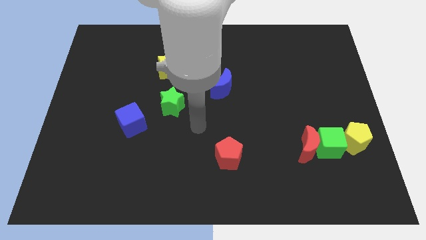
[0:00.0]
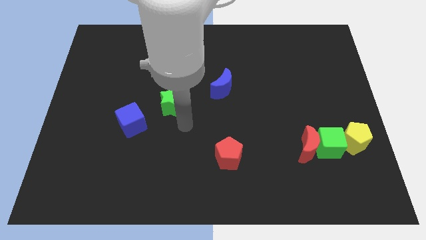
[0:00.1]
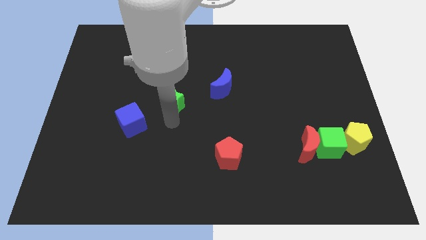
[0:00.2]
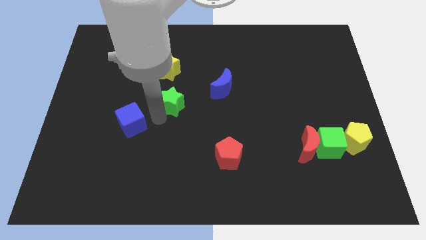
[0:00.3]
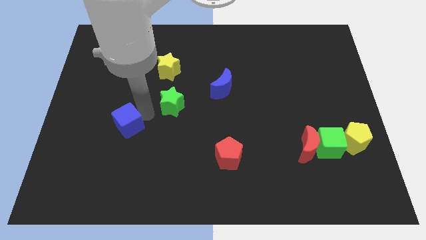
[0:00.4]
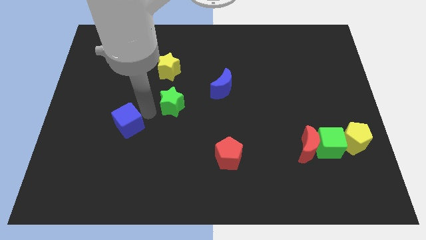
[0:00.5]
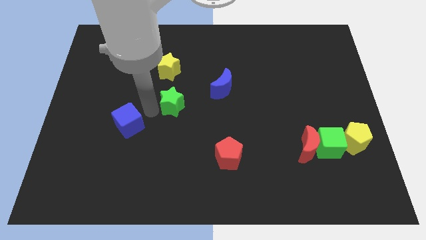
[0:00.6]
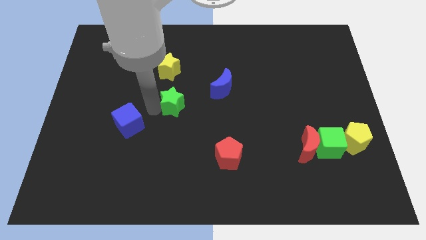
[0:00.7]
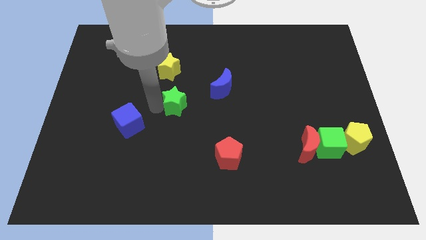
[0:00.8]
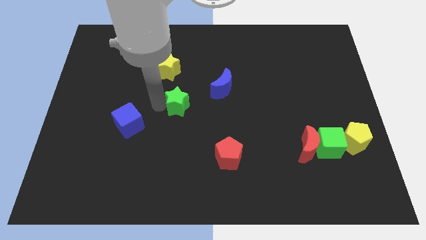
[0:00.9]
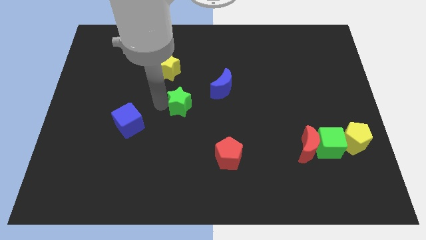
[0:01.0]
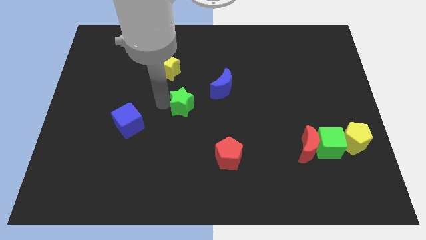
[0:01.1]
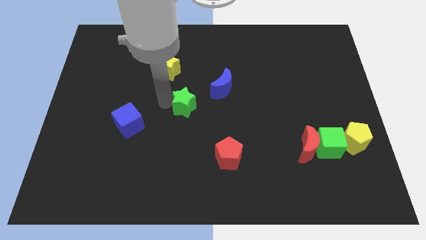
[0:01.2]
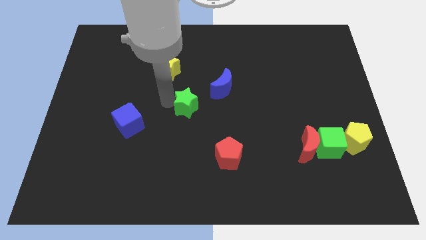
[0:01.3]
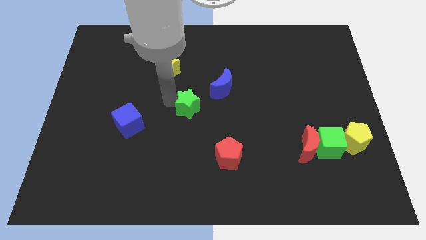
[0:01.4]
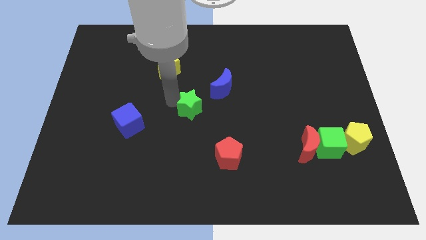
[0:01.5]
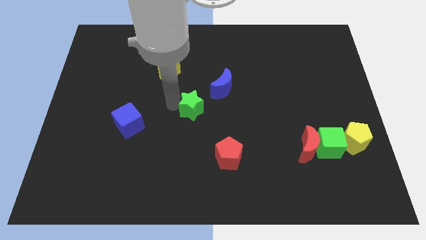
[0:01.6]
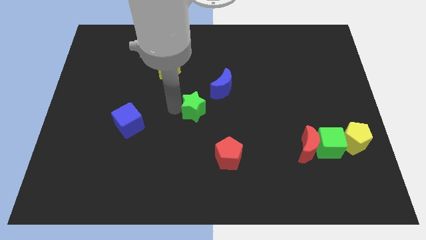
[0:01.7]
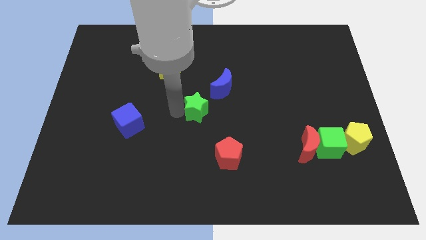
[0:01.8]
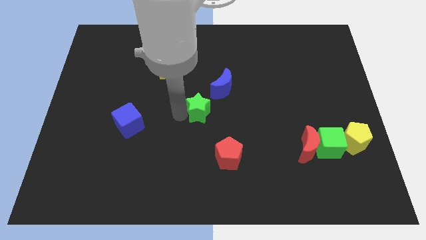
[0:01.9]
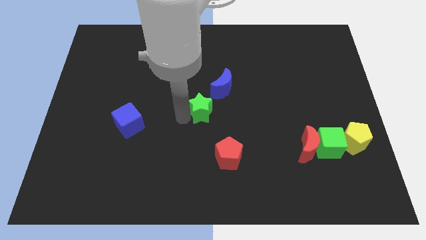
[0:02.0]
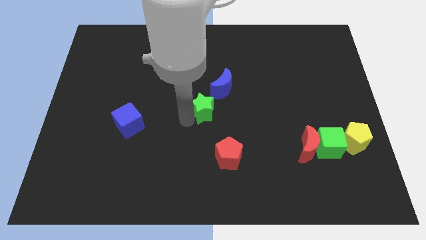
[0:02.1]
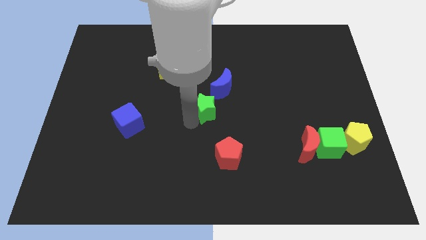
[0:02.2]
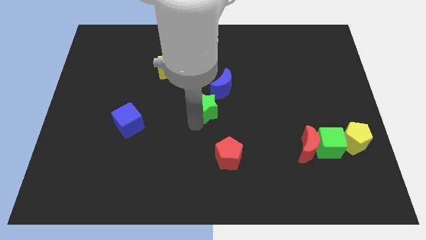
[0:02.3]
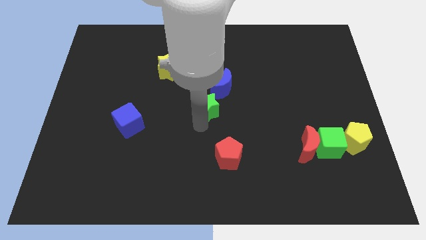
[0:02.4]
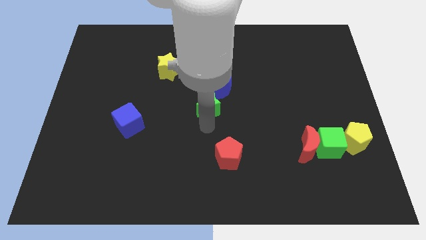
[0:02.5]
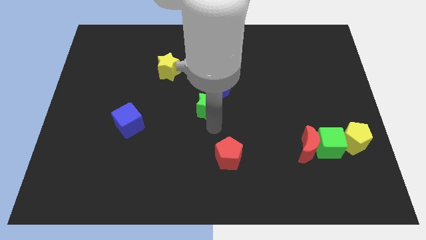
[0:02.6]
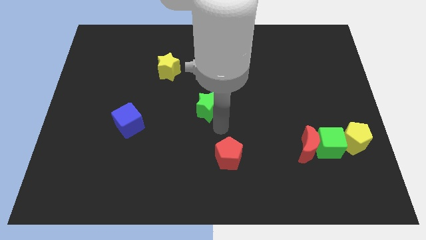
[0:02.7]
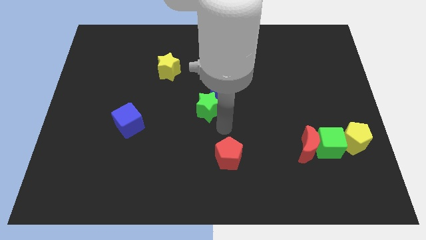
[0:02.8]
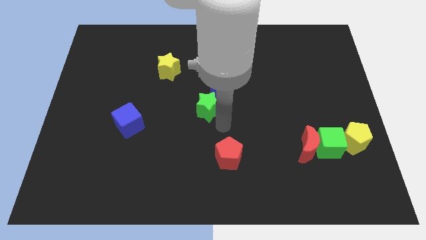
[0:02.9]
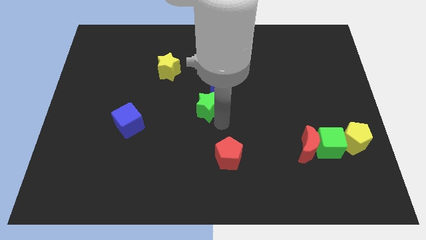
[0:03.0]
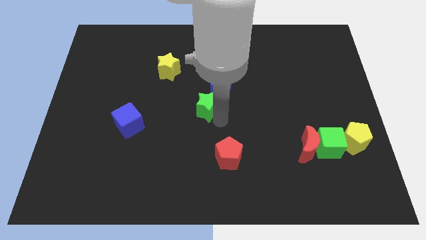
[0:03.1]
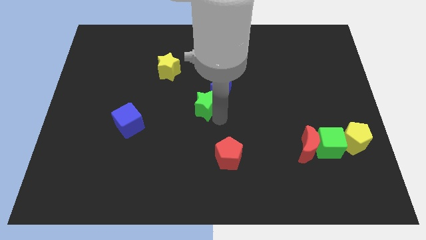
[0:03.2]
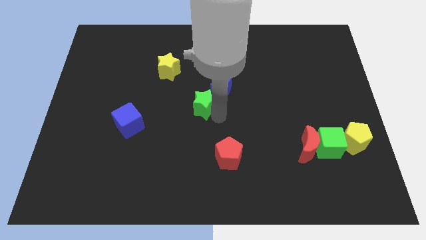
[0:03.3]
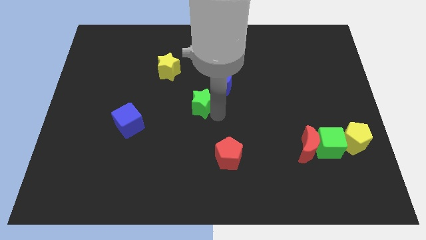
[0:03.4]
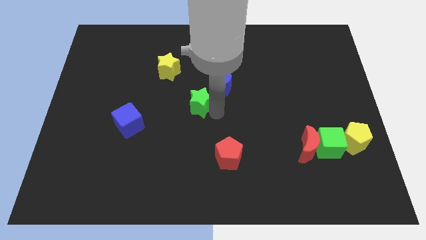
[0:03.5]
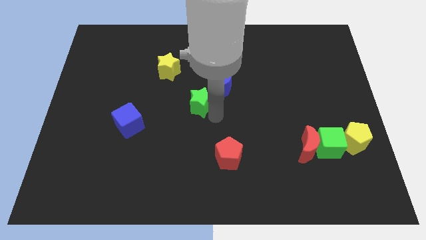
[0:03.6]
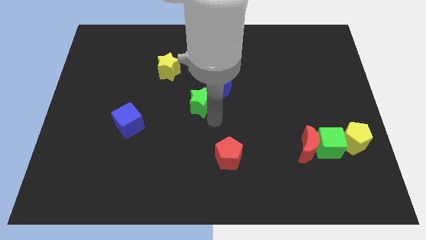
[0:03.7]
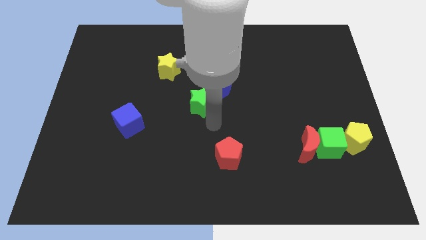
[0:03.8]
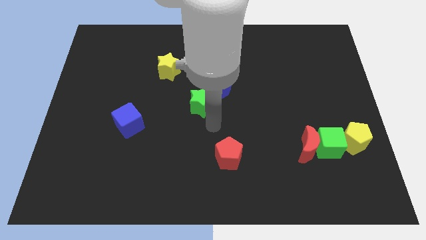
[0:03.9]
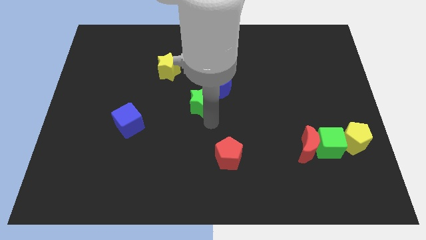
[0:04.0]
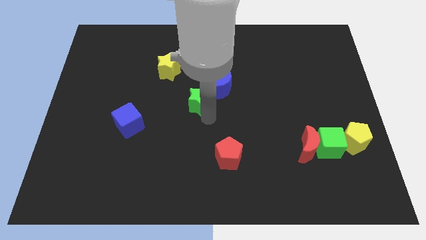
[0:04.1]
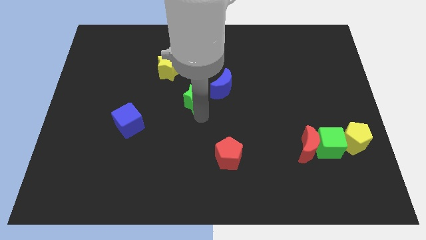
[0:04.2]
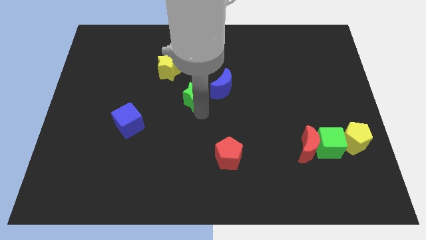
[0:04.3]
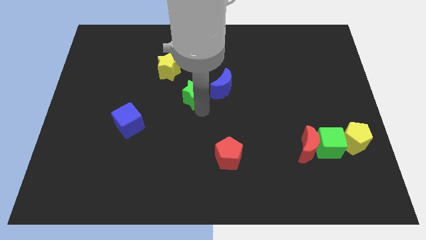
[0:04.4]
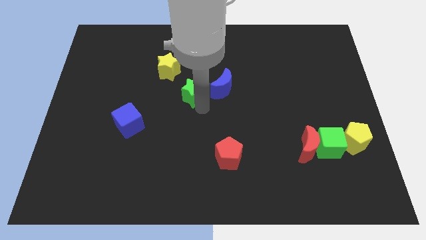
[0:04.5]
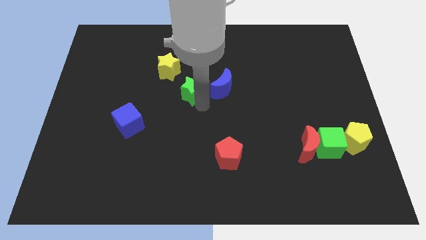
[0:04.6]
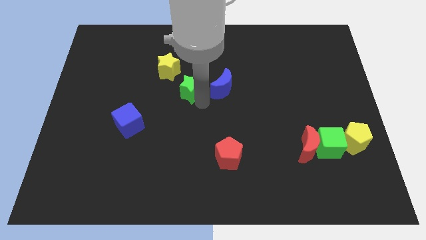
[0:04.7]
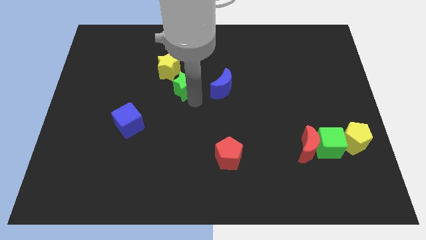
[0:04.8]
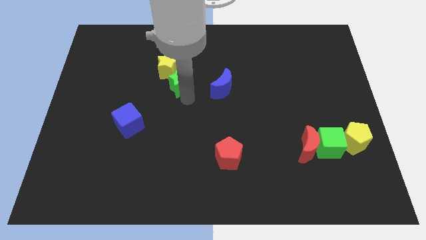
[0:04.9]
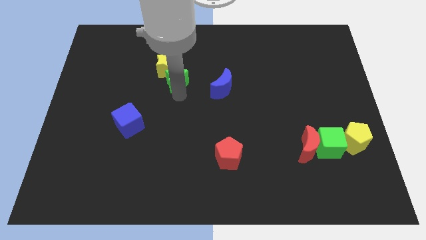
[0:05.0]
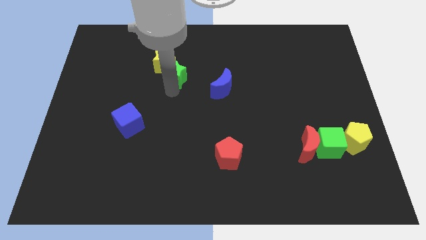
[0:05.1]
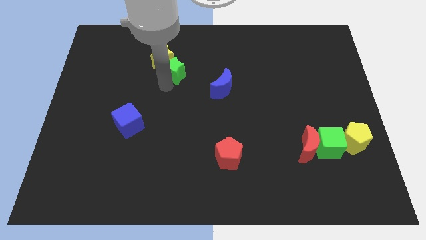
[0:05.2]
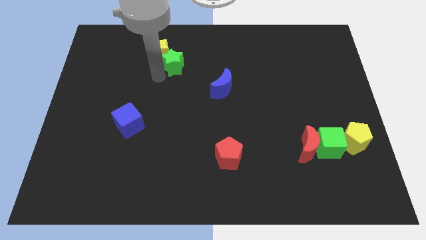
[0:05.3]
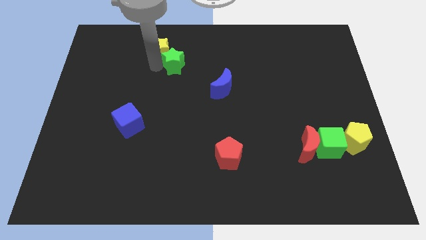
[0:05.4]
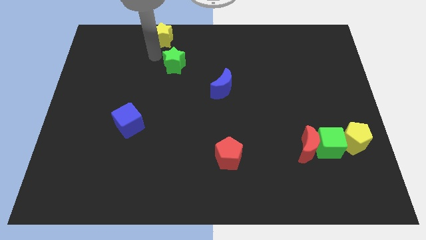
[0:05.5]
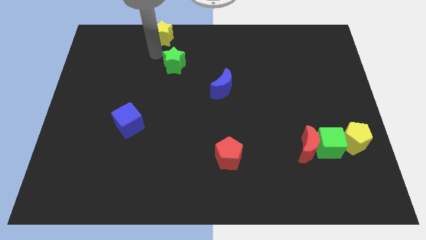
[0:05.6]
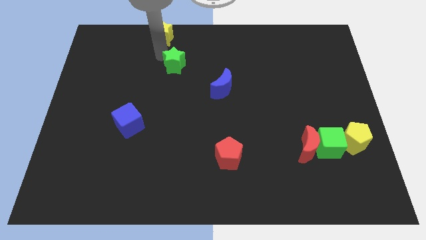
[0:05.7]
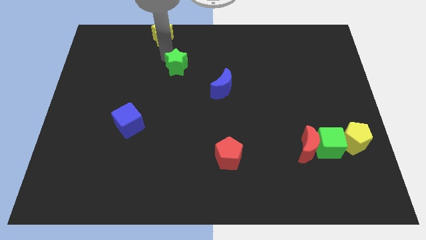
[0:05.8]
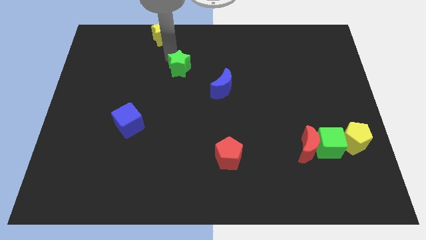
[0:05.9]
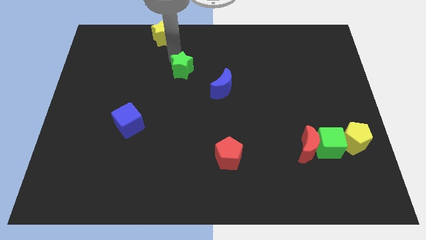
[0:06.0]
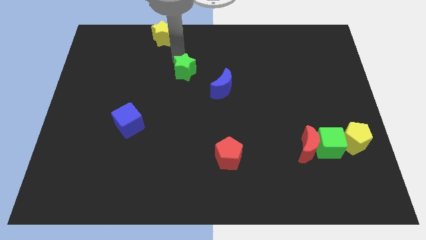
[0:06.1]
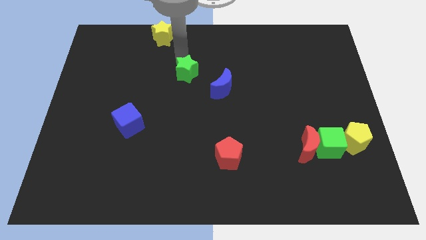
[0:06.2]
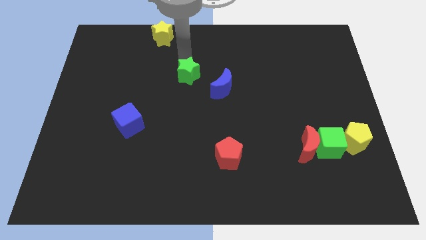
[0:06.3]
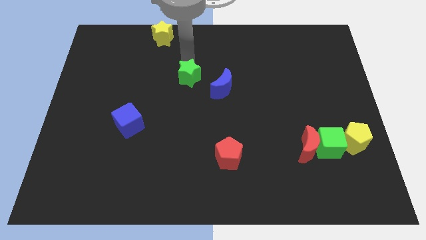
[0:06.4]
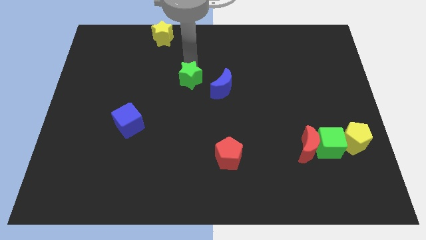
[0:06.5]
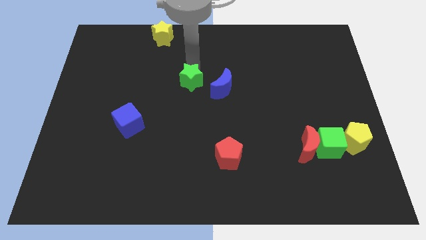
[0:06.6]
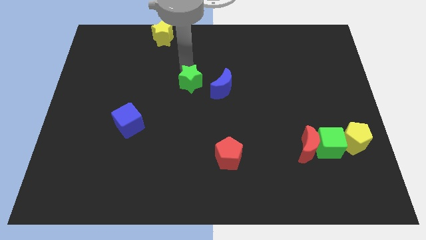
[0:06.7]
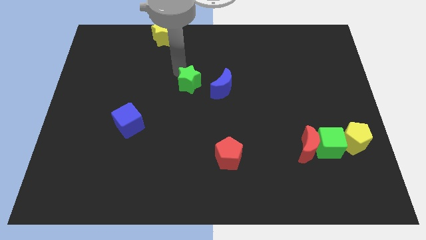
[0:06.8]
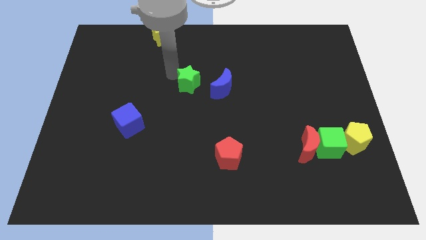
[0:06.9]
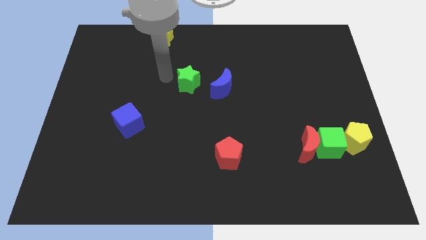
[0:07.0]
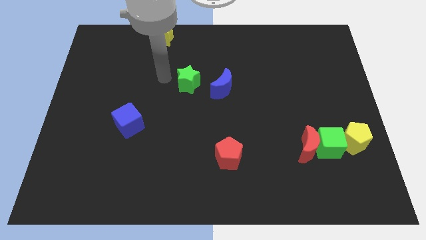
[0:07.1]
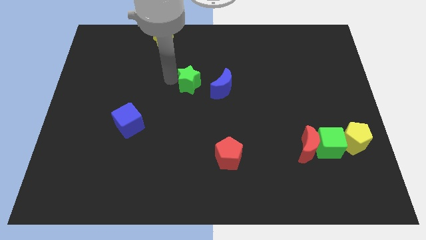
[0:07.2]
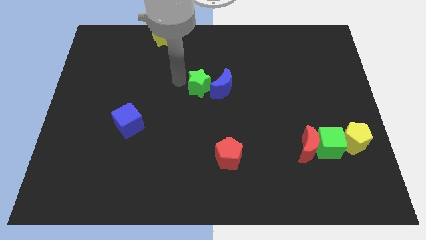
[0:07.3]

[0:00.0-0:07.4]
push the green star to the blue moon

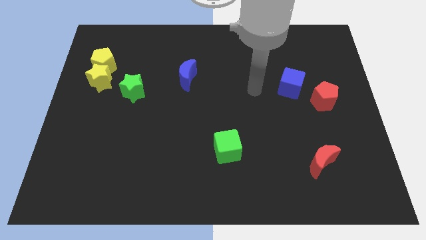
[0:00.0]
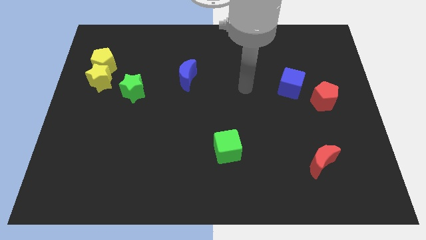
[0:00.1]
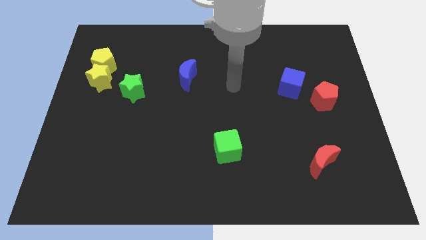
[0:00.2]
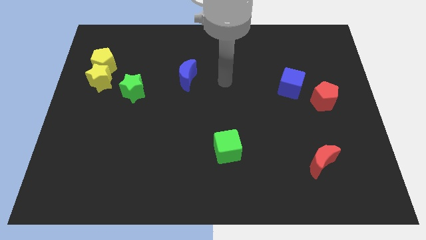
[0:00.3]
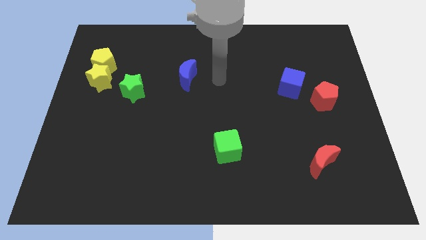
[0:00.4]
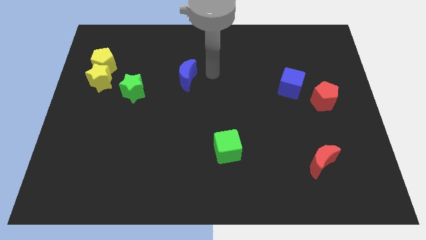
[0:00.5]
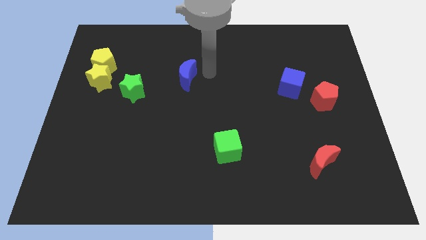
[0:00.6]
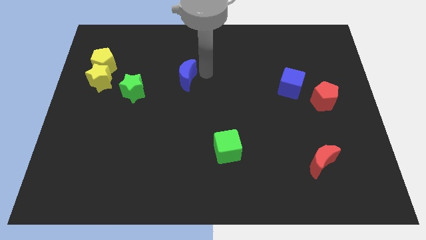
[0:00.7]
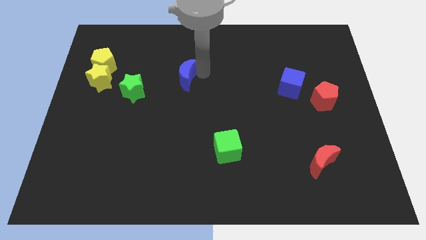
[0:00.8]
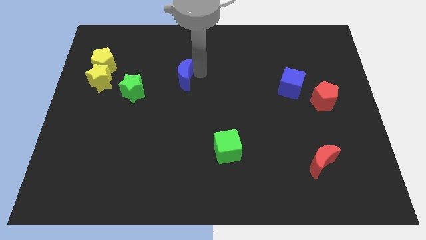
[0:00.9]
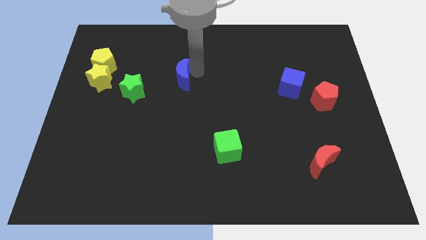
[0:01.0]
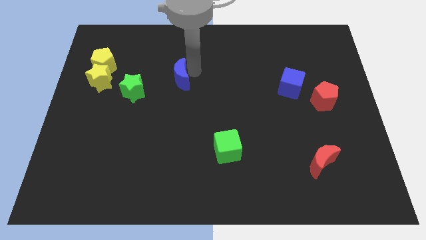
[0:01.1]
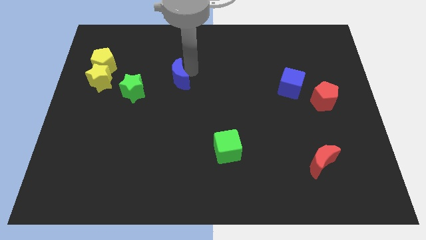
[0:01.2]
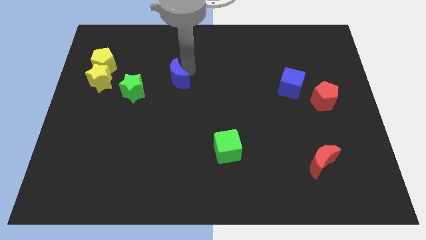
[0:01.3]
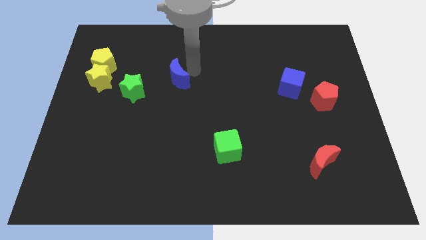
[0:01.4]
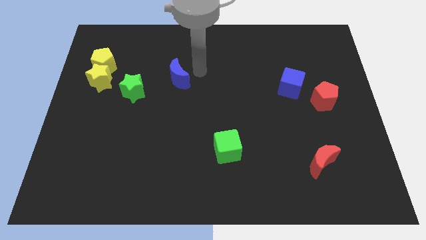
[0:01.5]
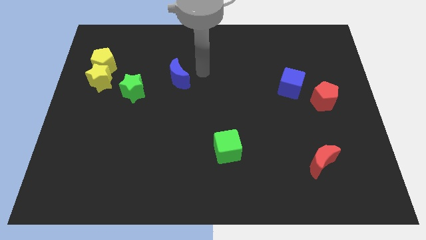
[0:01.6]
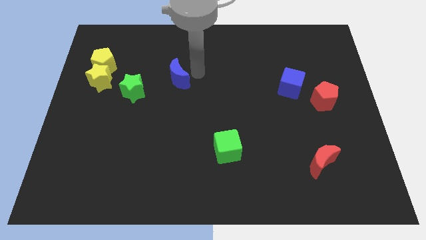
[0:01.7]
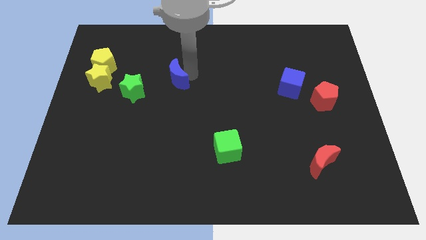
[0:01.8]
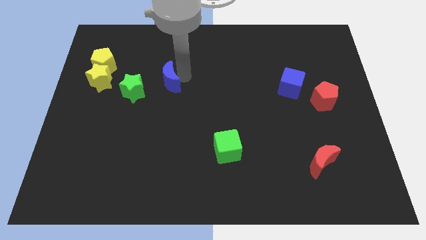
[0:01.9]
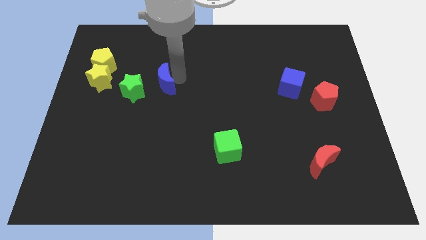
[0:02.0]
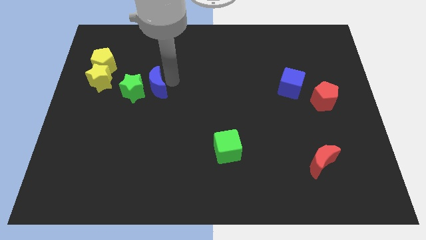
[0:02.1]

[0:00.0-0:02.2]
push the blue moon towards the green star
